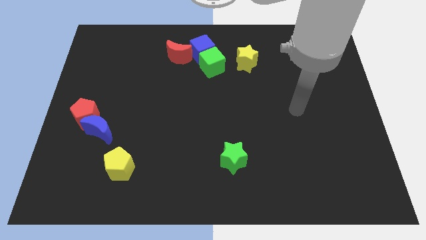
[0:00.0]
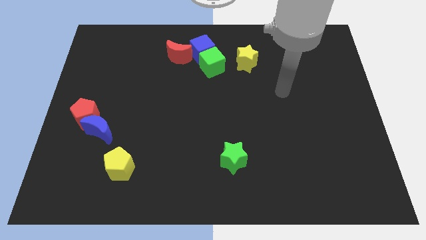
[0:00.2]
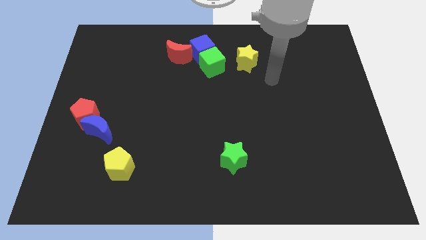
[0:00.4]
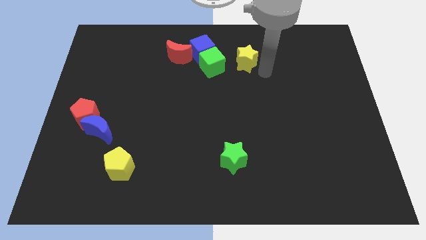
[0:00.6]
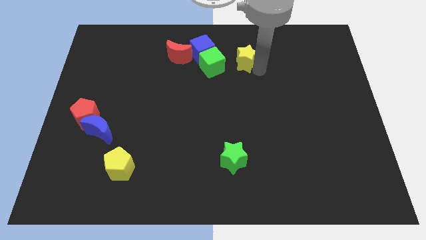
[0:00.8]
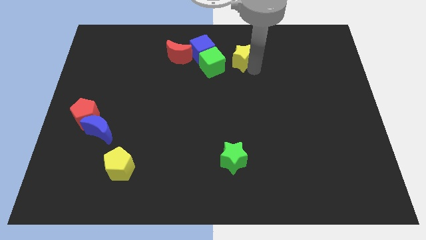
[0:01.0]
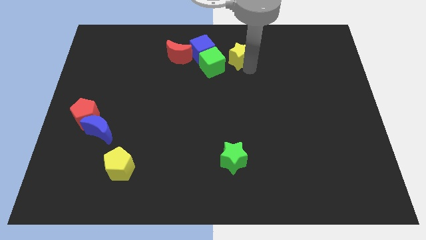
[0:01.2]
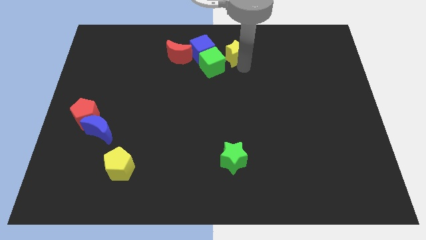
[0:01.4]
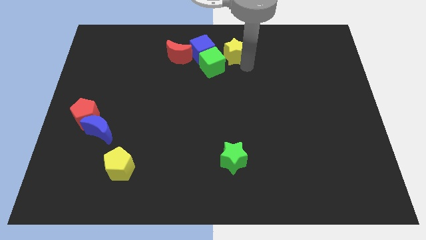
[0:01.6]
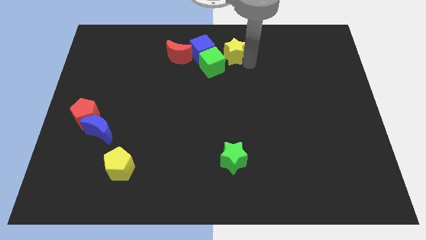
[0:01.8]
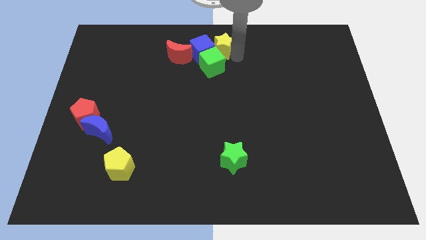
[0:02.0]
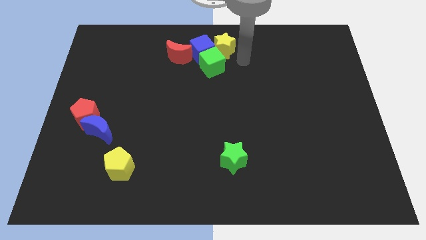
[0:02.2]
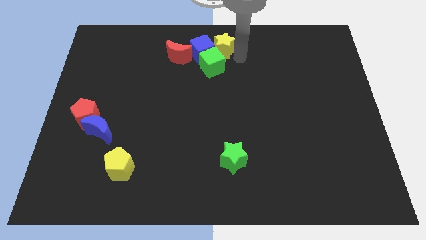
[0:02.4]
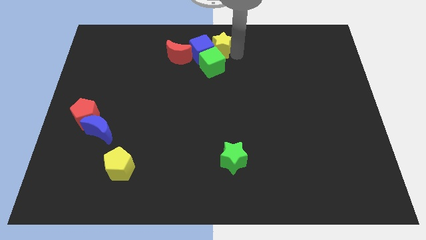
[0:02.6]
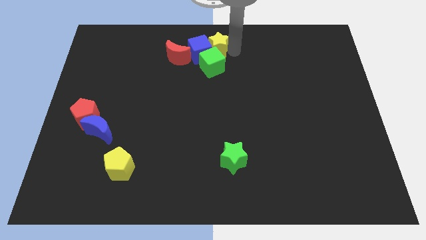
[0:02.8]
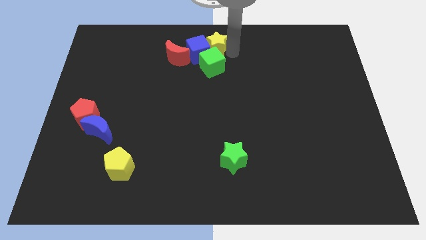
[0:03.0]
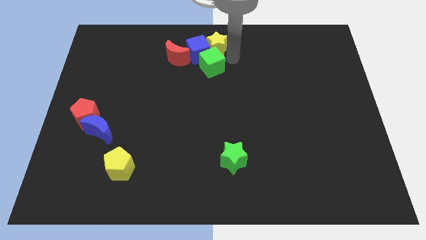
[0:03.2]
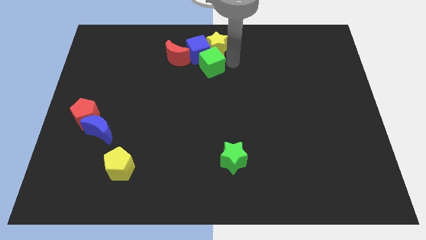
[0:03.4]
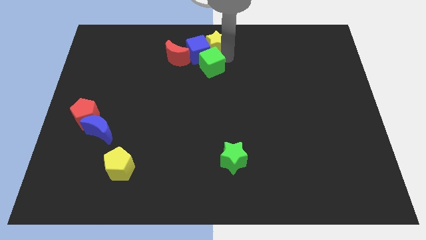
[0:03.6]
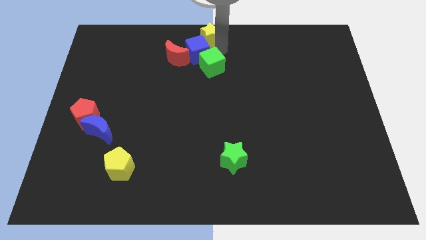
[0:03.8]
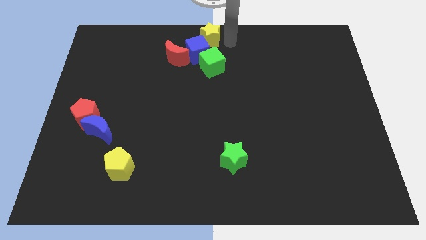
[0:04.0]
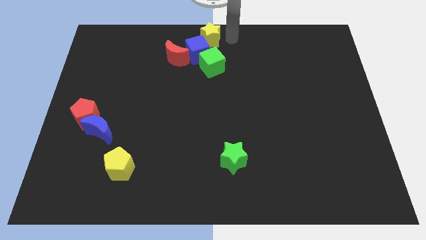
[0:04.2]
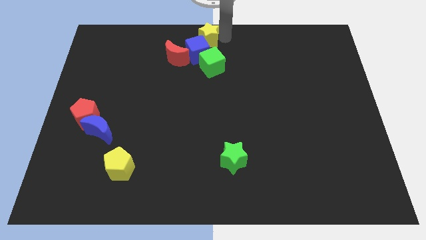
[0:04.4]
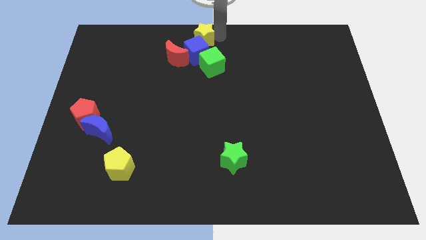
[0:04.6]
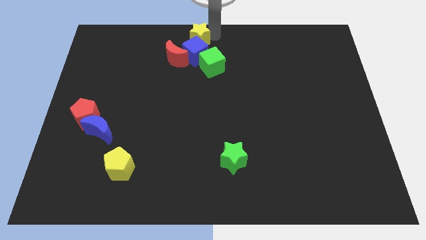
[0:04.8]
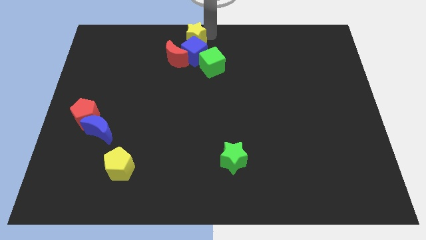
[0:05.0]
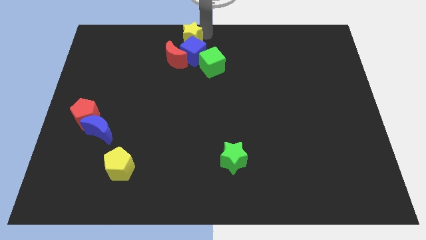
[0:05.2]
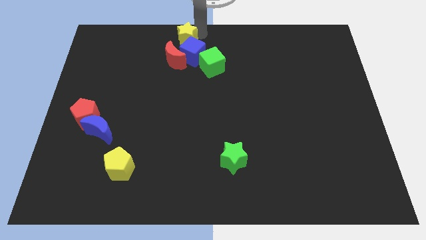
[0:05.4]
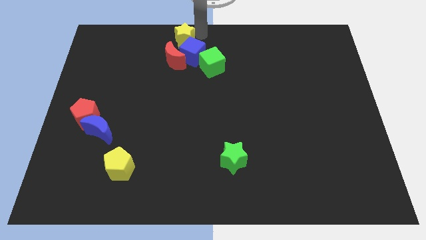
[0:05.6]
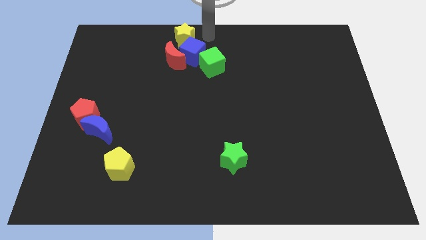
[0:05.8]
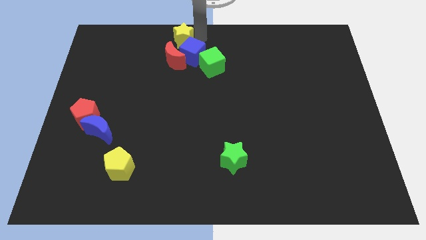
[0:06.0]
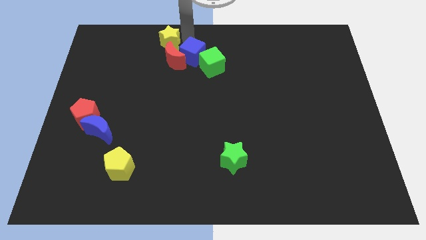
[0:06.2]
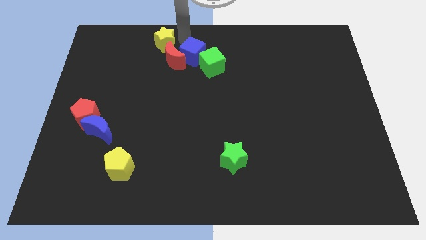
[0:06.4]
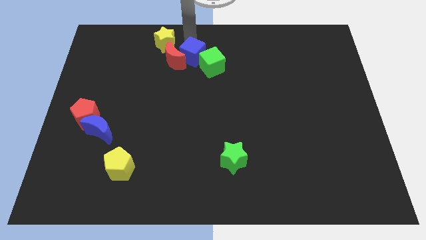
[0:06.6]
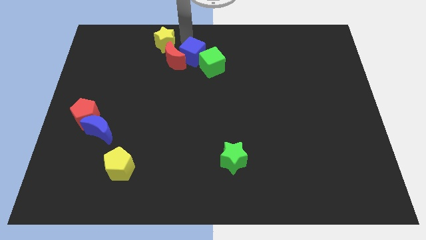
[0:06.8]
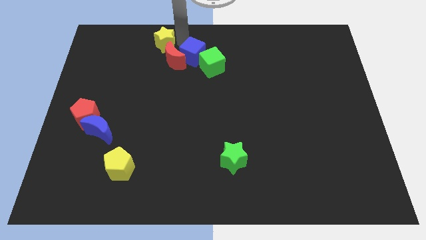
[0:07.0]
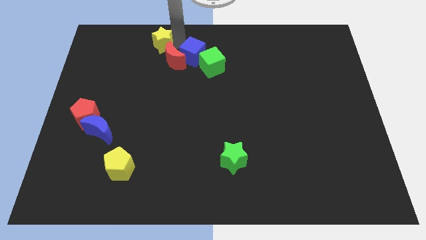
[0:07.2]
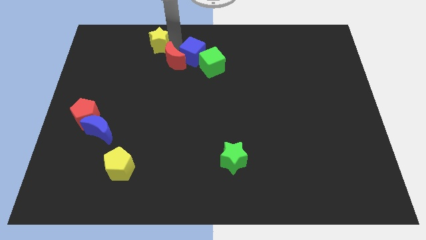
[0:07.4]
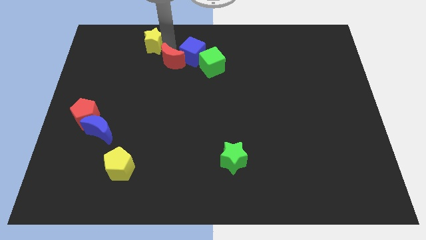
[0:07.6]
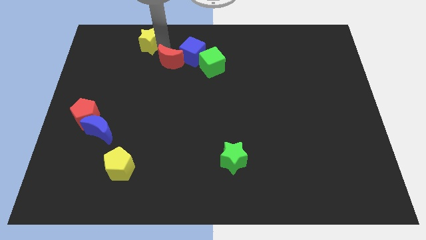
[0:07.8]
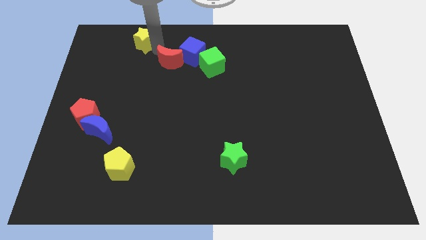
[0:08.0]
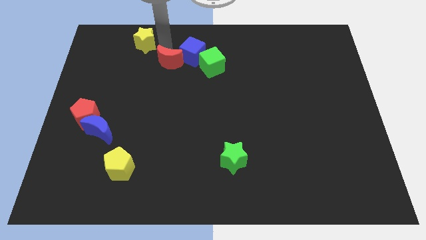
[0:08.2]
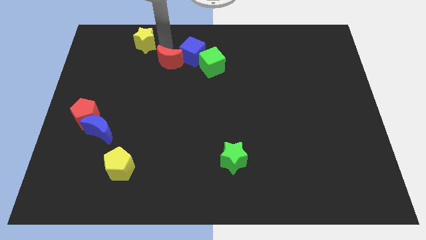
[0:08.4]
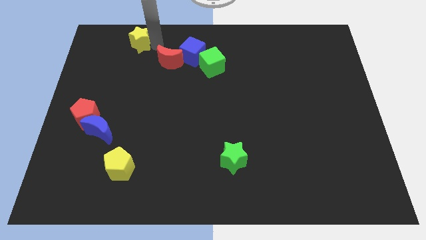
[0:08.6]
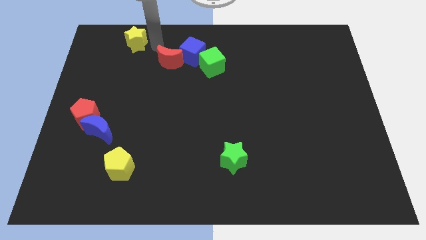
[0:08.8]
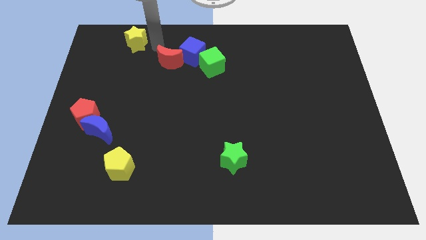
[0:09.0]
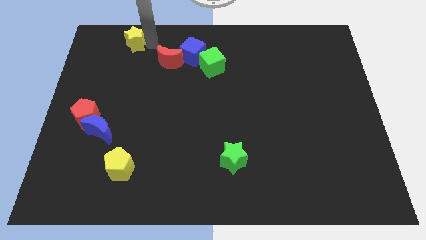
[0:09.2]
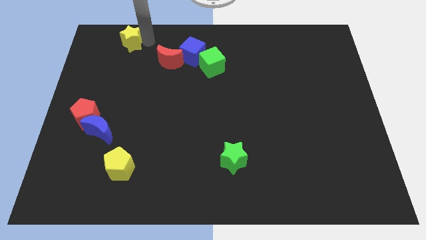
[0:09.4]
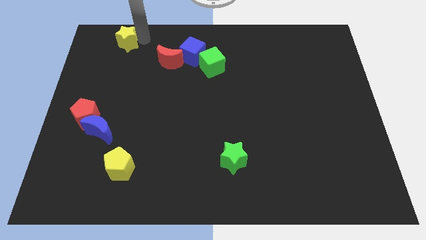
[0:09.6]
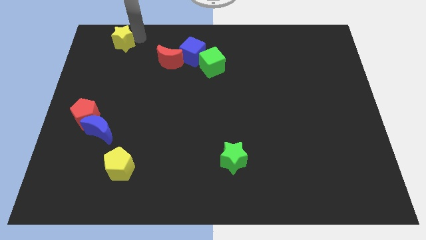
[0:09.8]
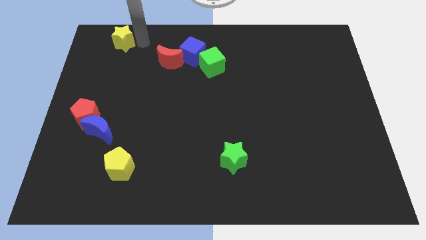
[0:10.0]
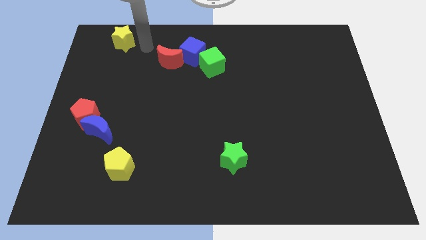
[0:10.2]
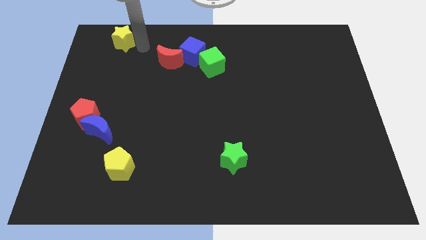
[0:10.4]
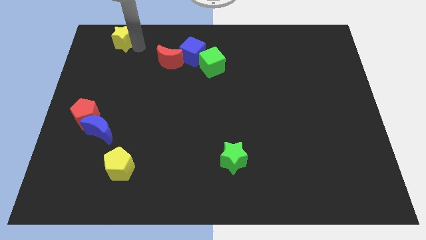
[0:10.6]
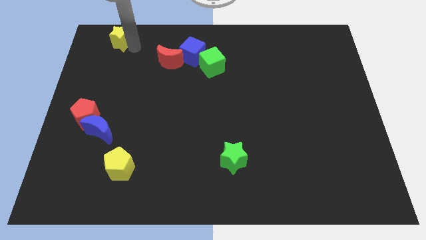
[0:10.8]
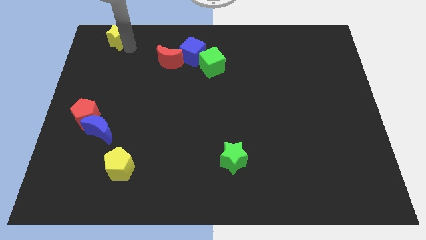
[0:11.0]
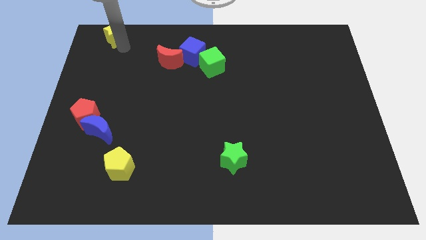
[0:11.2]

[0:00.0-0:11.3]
put the yellow star to the top left of the board

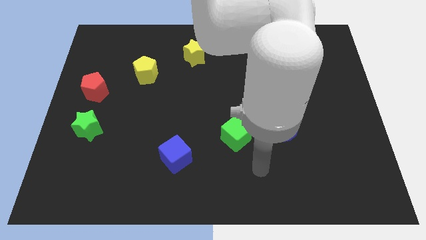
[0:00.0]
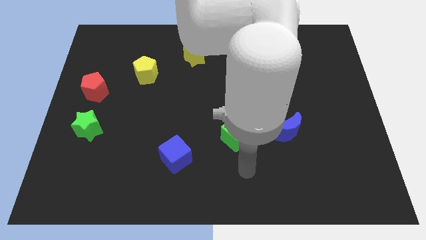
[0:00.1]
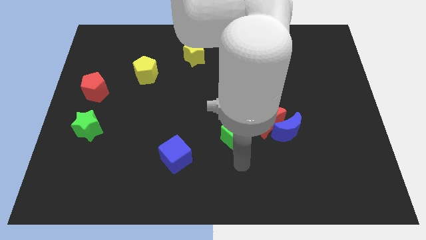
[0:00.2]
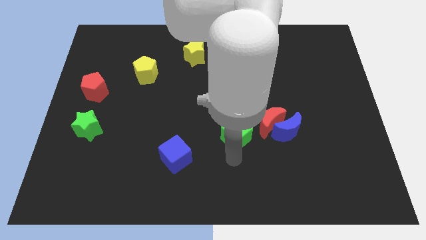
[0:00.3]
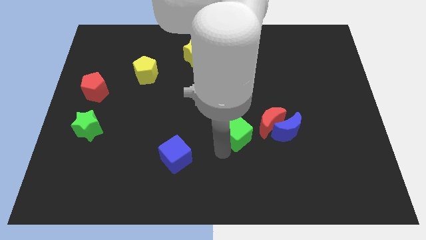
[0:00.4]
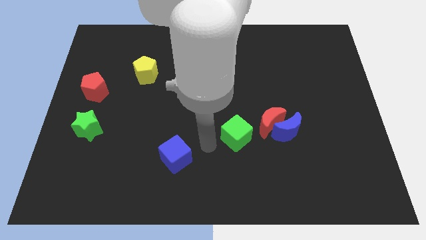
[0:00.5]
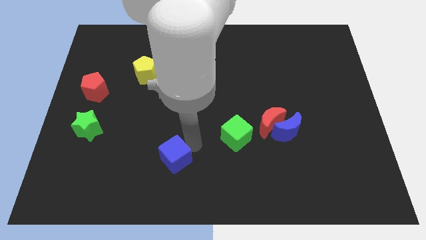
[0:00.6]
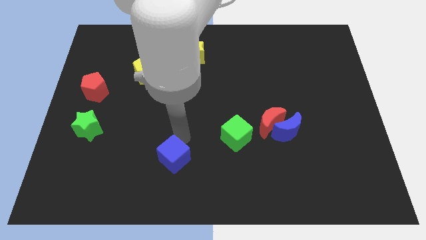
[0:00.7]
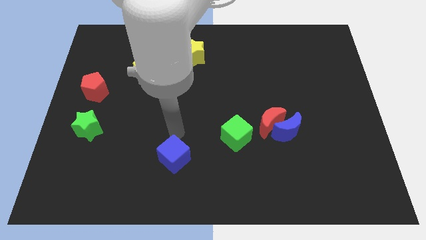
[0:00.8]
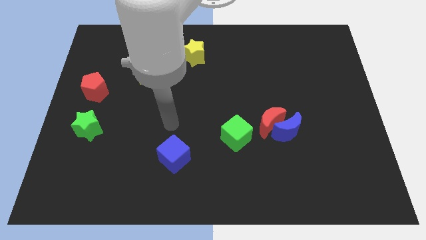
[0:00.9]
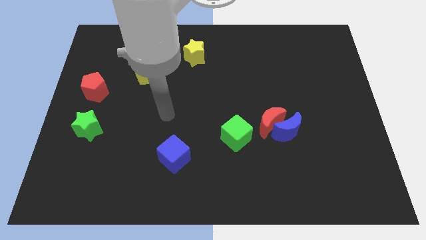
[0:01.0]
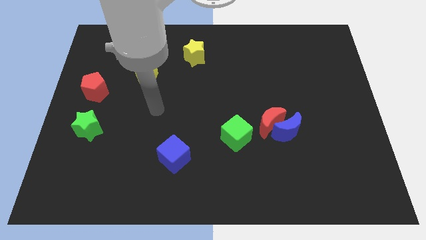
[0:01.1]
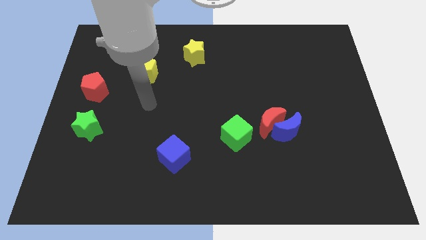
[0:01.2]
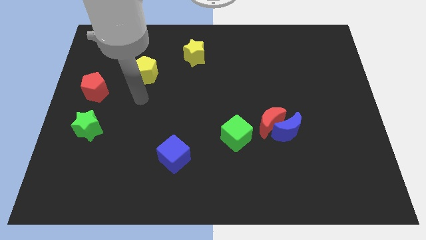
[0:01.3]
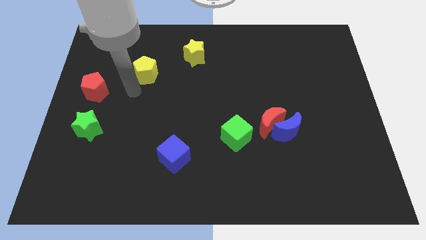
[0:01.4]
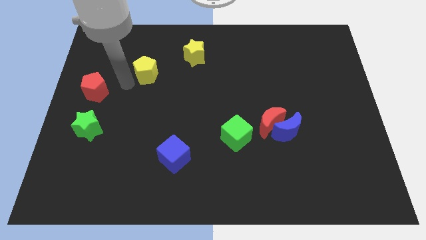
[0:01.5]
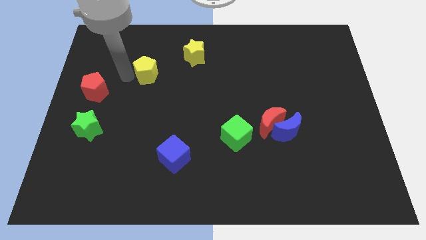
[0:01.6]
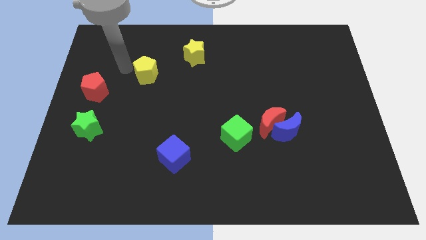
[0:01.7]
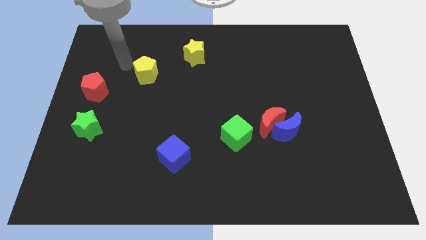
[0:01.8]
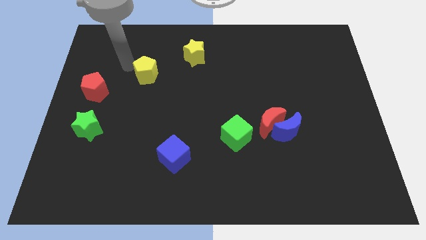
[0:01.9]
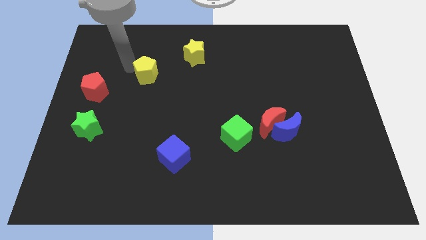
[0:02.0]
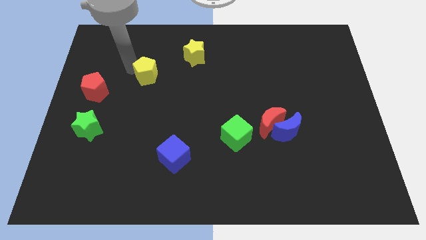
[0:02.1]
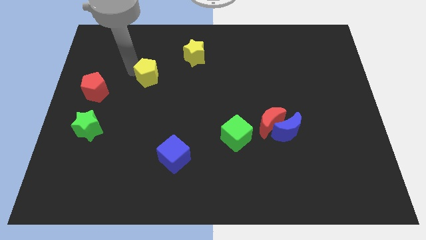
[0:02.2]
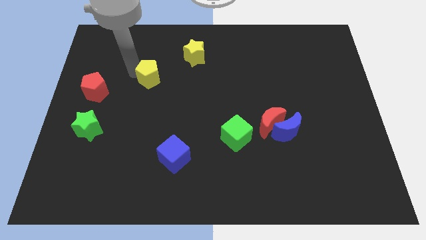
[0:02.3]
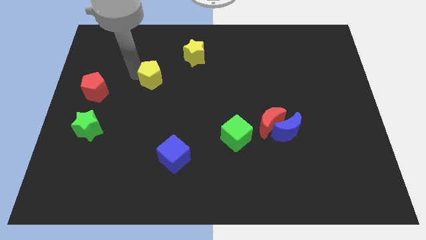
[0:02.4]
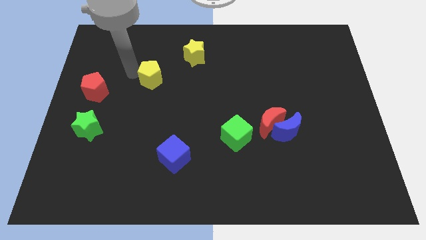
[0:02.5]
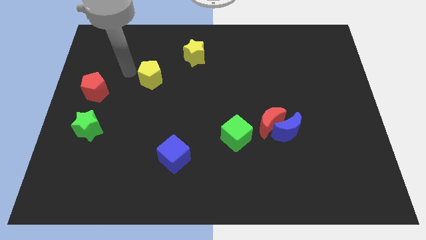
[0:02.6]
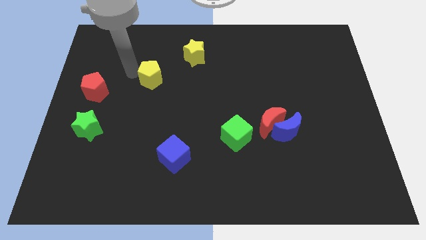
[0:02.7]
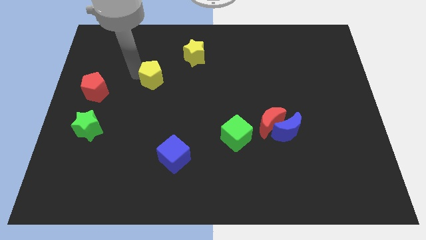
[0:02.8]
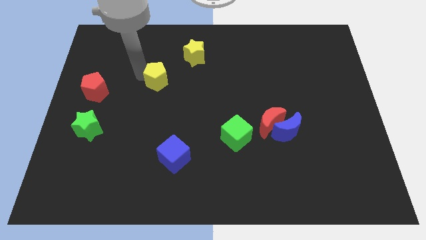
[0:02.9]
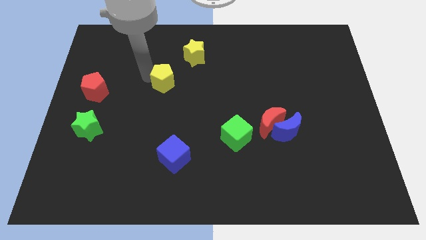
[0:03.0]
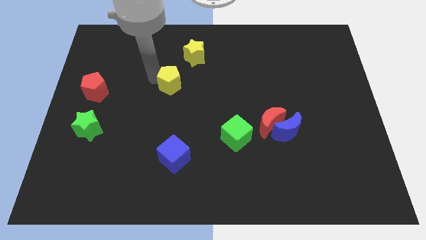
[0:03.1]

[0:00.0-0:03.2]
push the yellow pentagon to the center
